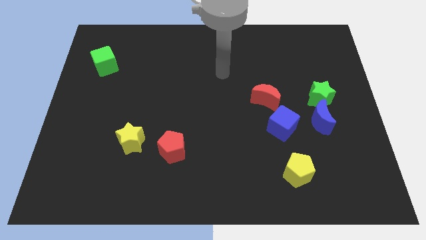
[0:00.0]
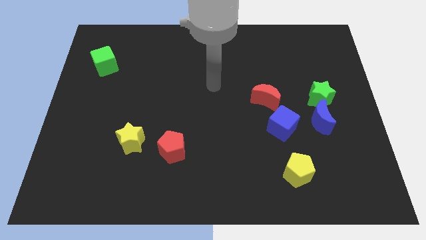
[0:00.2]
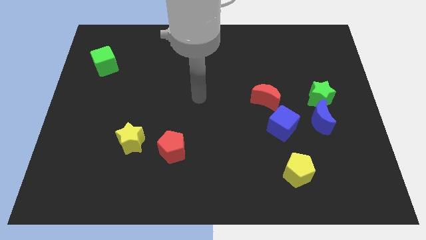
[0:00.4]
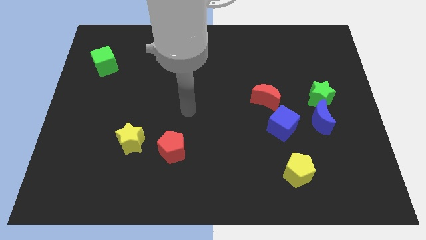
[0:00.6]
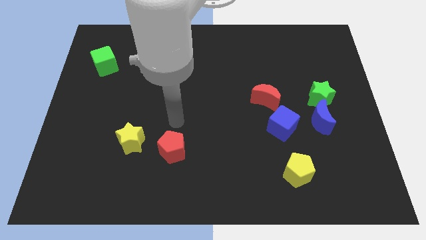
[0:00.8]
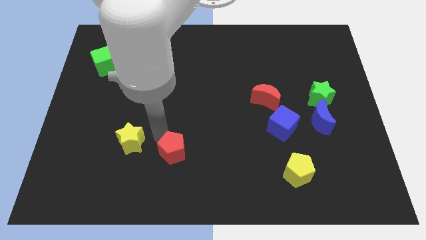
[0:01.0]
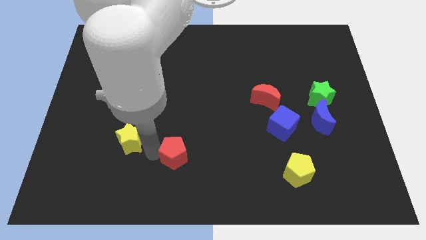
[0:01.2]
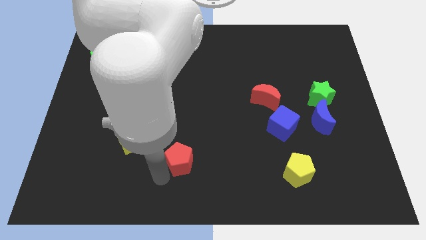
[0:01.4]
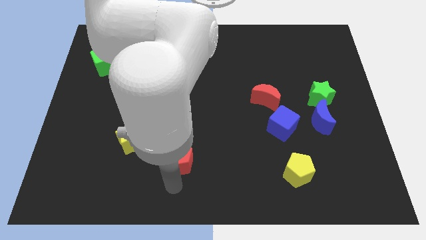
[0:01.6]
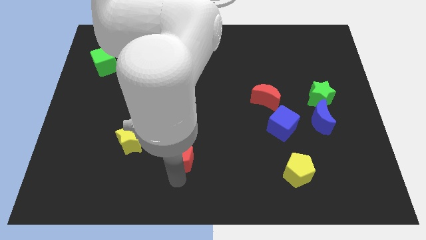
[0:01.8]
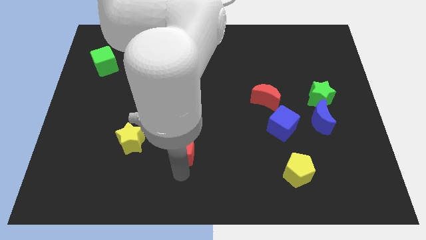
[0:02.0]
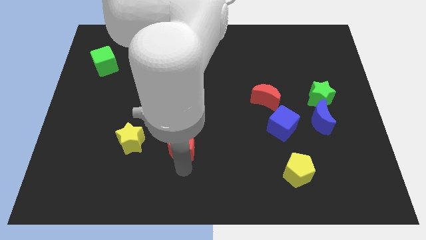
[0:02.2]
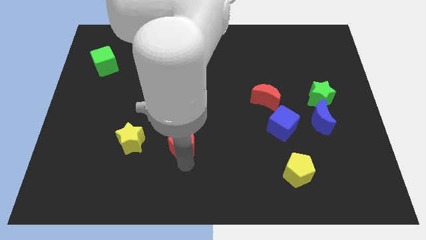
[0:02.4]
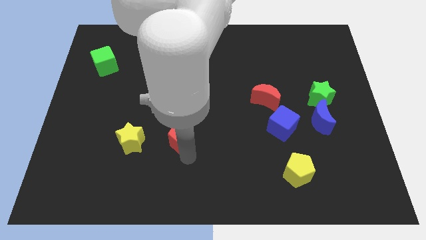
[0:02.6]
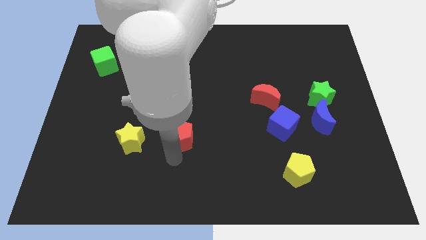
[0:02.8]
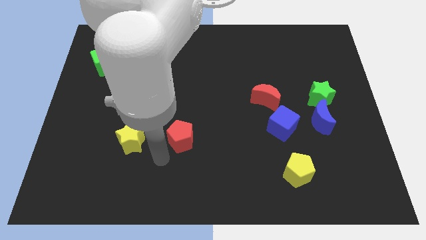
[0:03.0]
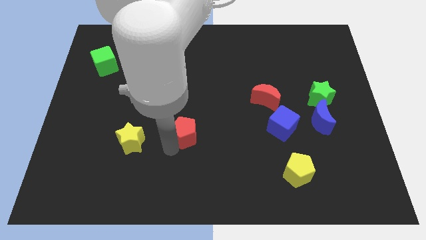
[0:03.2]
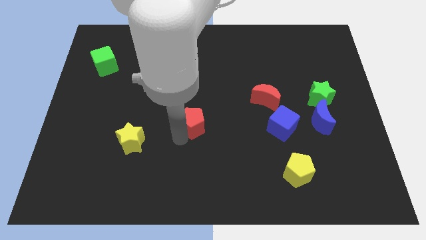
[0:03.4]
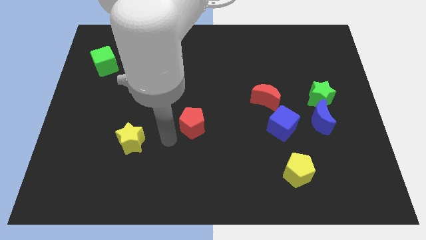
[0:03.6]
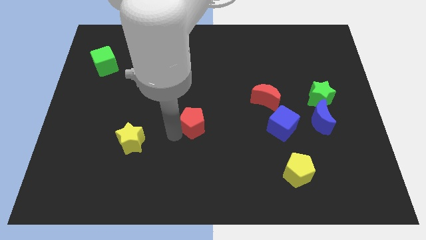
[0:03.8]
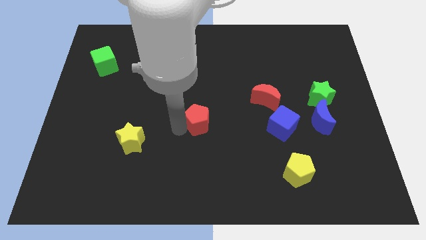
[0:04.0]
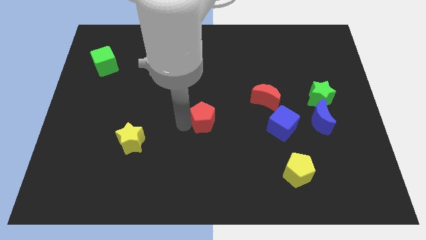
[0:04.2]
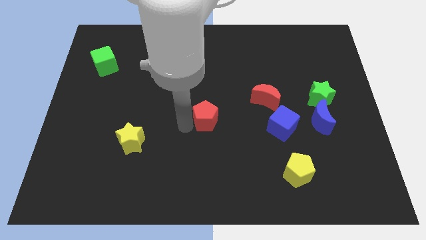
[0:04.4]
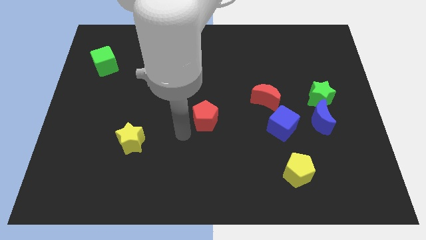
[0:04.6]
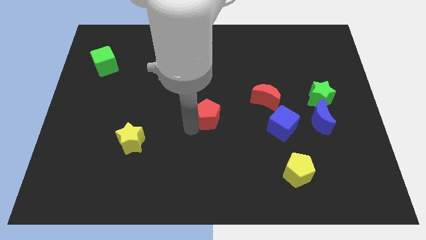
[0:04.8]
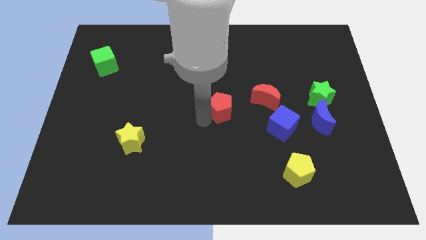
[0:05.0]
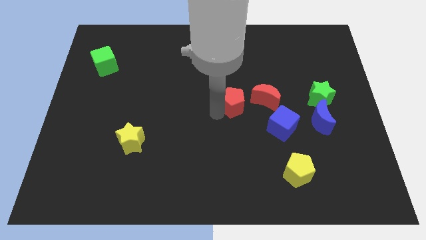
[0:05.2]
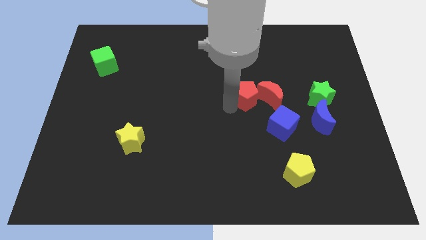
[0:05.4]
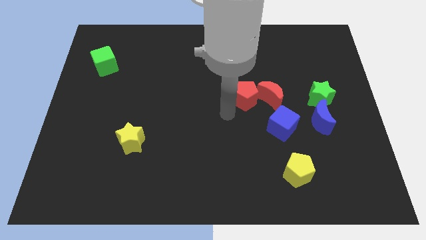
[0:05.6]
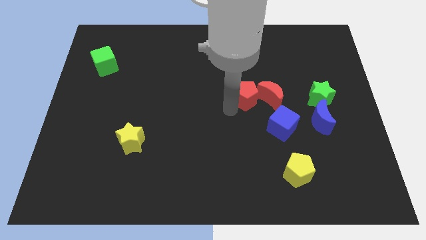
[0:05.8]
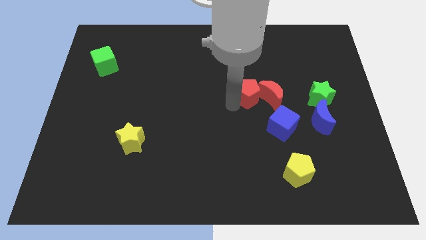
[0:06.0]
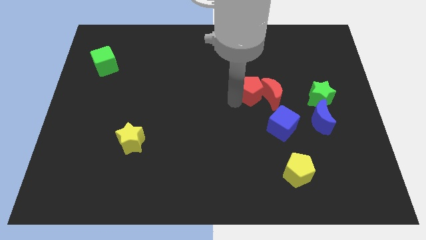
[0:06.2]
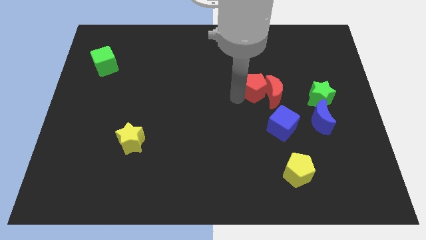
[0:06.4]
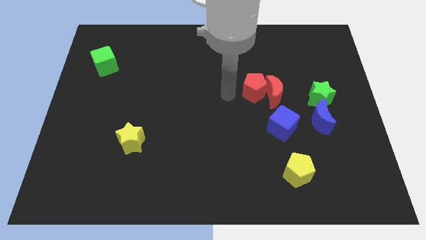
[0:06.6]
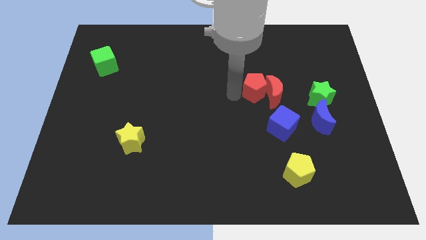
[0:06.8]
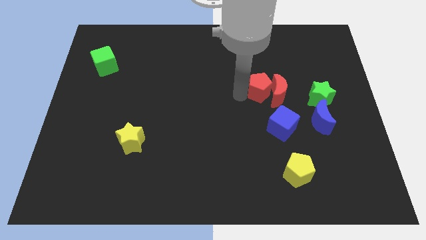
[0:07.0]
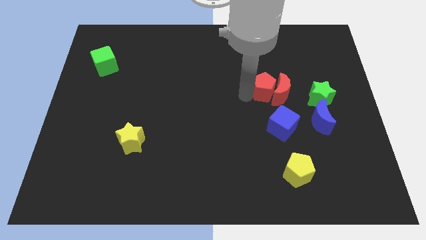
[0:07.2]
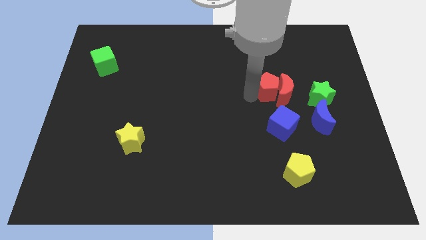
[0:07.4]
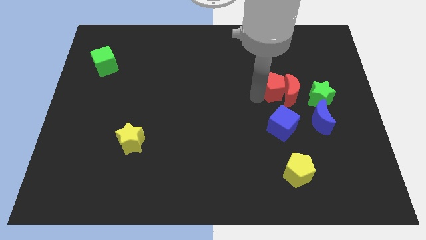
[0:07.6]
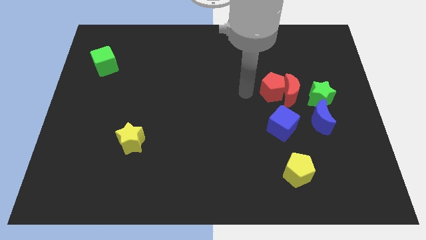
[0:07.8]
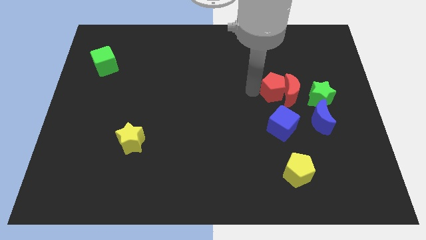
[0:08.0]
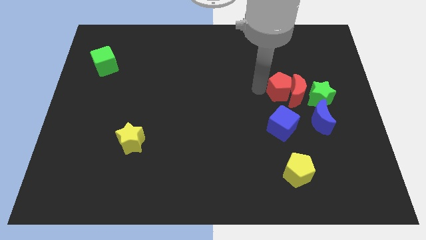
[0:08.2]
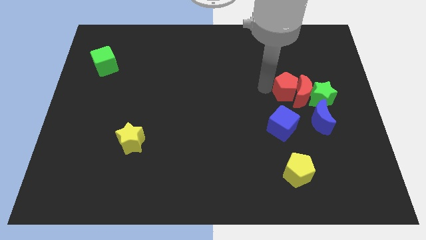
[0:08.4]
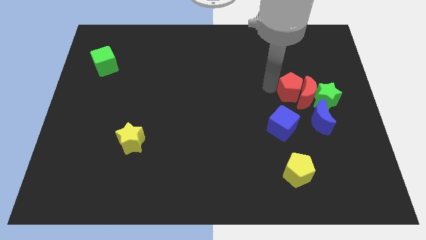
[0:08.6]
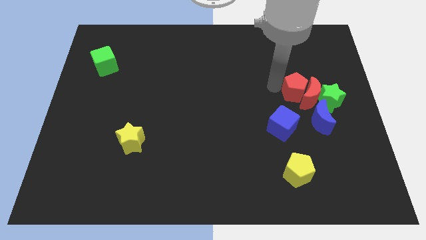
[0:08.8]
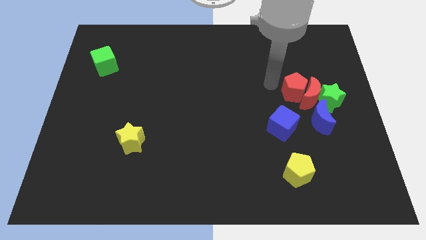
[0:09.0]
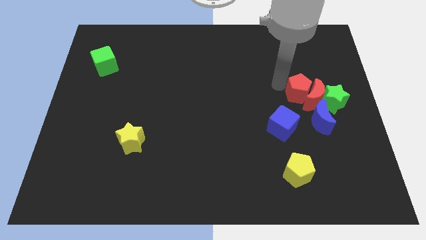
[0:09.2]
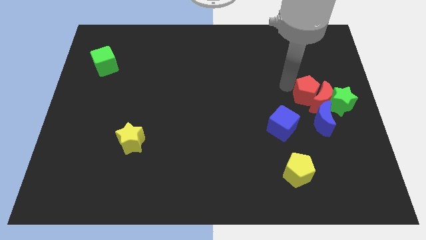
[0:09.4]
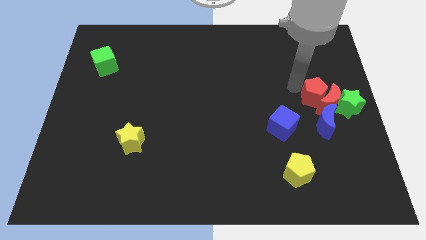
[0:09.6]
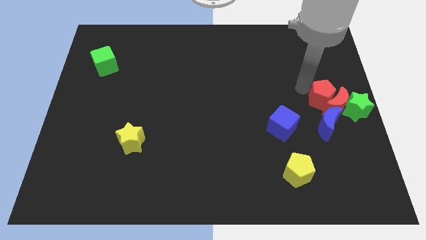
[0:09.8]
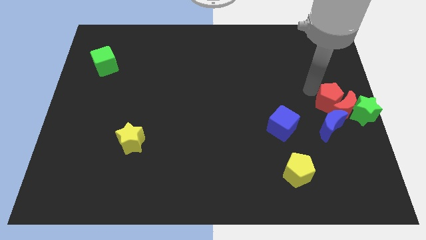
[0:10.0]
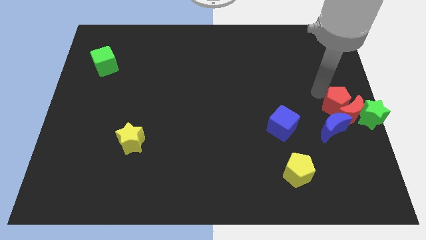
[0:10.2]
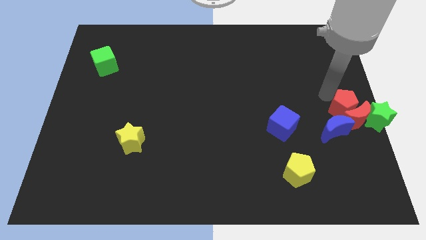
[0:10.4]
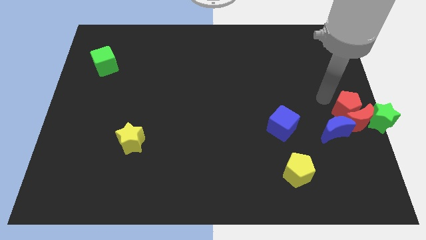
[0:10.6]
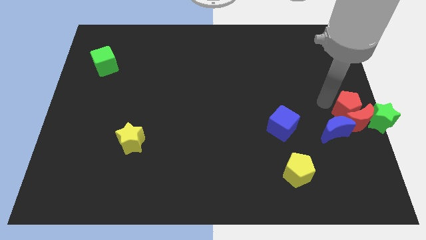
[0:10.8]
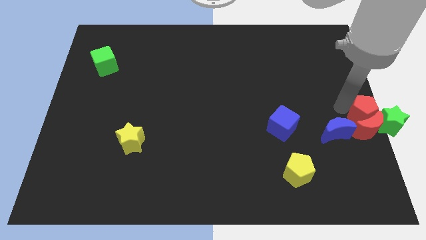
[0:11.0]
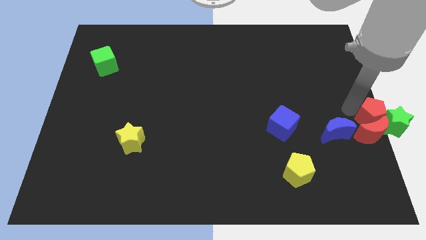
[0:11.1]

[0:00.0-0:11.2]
put the red pentagon towards the green star

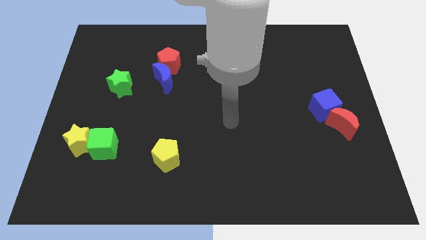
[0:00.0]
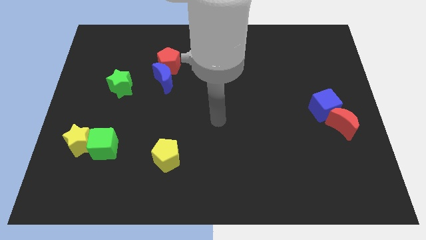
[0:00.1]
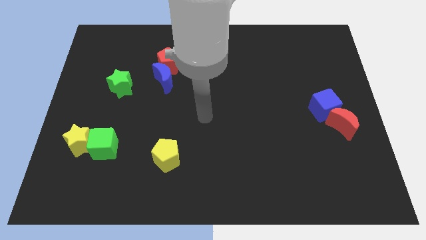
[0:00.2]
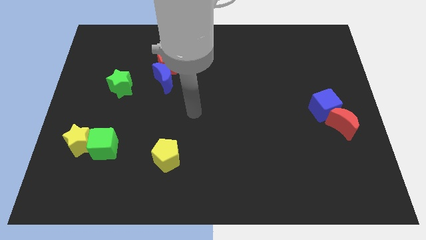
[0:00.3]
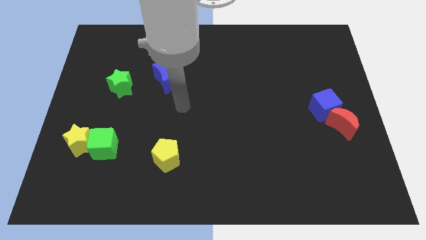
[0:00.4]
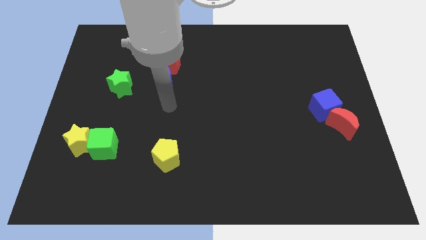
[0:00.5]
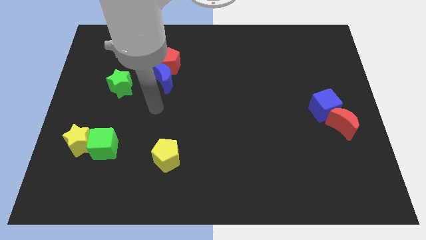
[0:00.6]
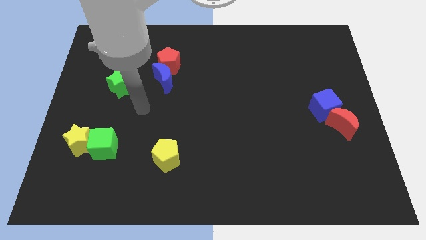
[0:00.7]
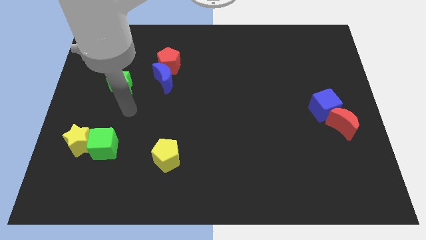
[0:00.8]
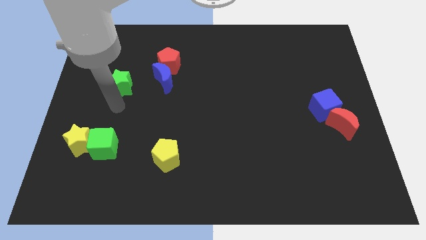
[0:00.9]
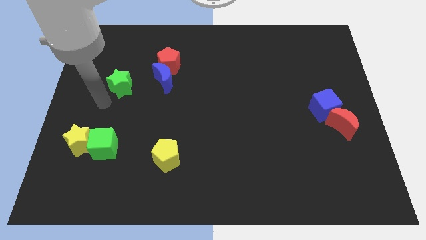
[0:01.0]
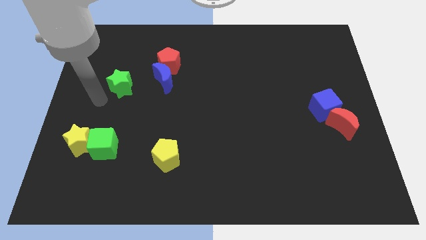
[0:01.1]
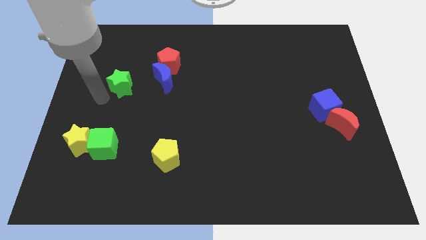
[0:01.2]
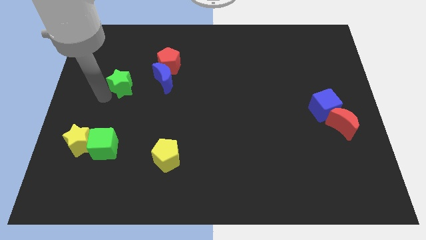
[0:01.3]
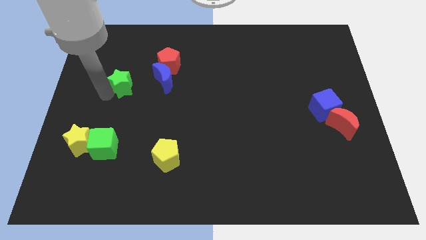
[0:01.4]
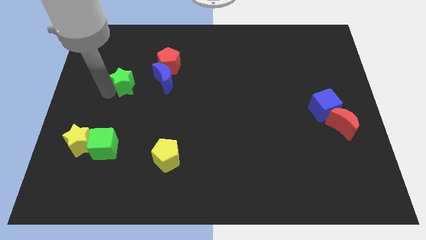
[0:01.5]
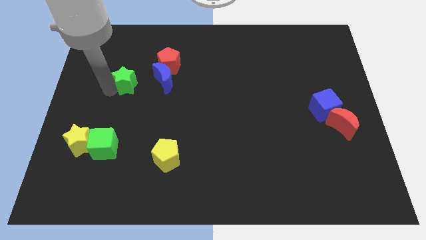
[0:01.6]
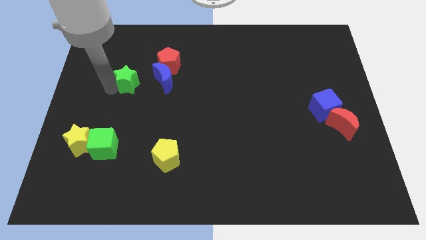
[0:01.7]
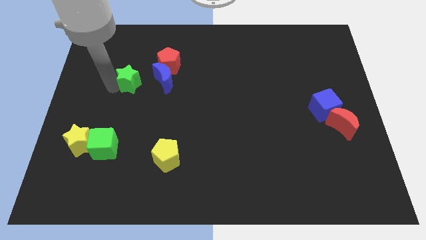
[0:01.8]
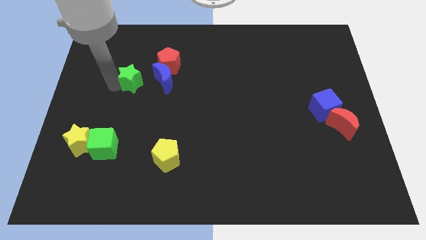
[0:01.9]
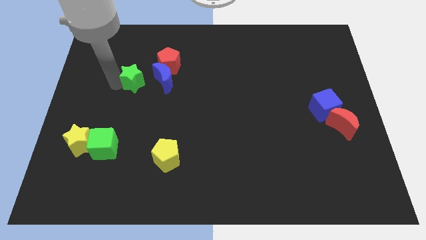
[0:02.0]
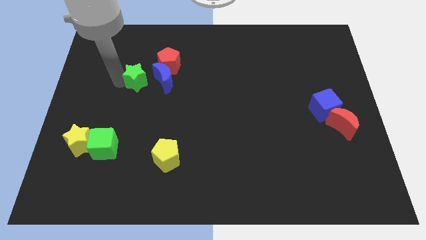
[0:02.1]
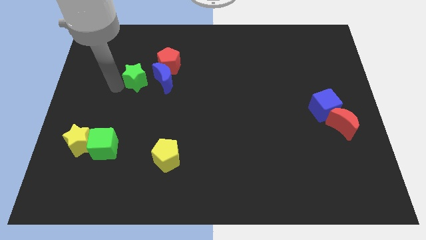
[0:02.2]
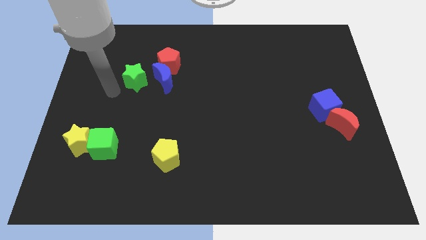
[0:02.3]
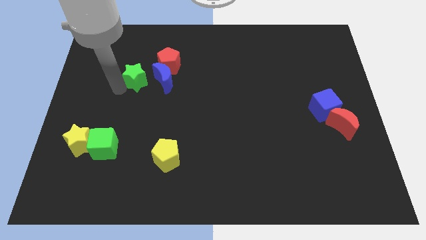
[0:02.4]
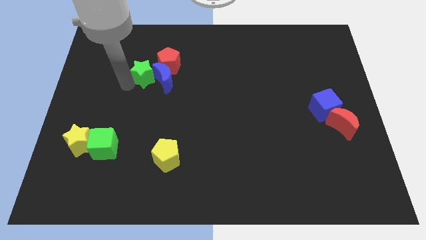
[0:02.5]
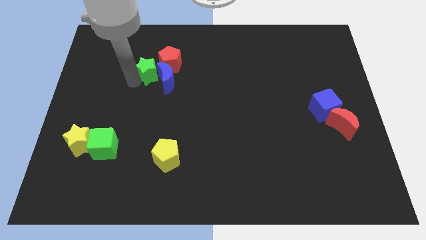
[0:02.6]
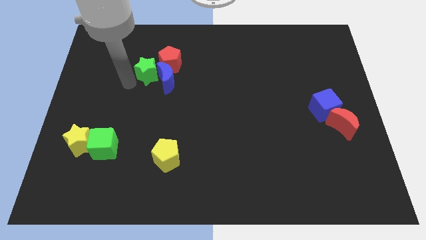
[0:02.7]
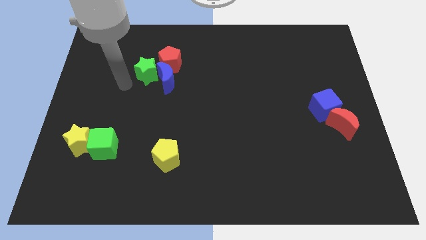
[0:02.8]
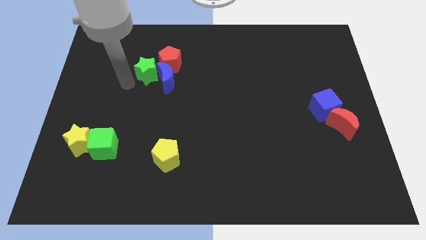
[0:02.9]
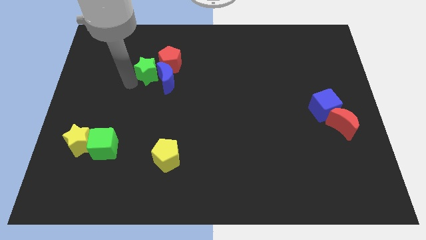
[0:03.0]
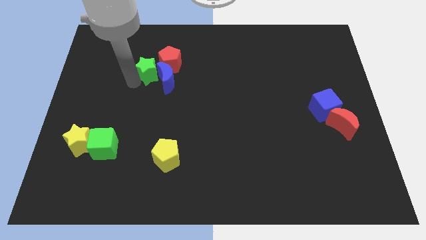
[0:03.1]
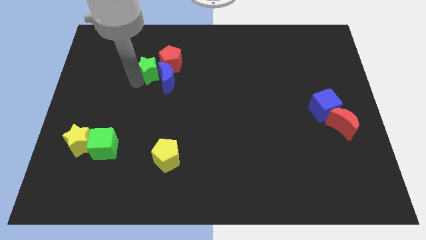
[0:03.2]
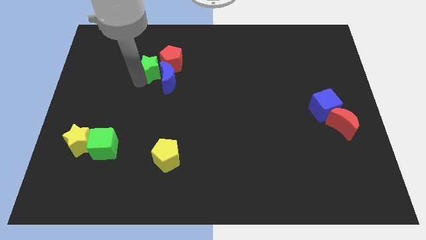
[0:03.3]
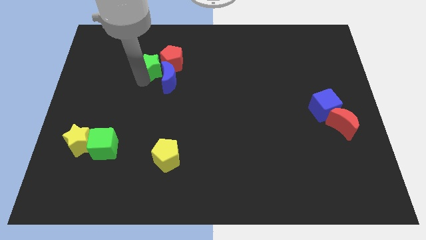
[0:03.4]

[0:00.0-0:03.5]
slide the green star to the red pentagon
